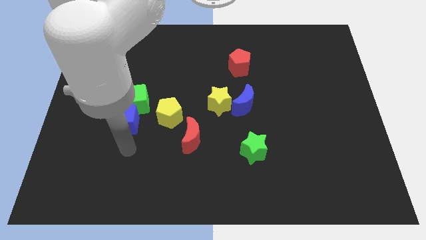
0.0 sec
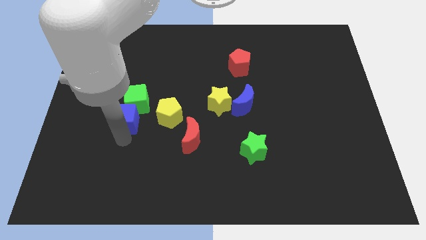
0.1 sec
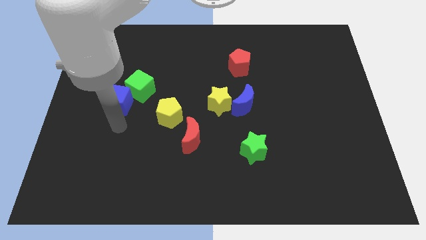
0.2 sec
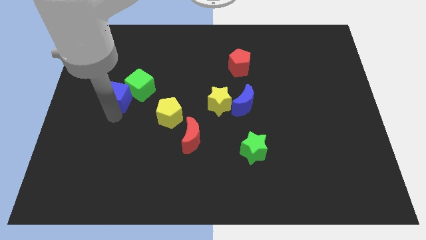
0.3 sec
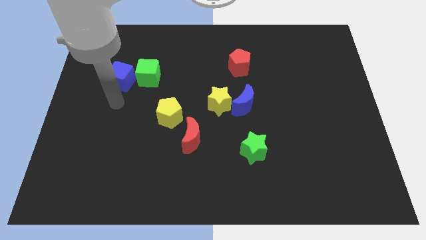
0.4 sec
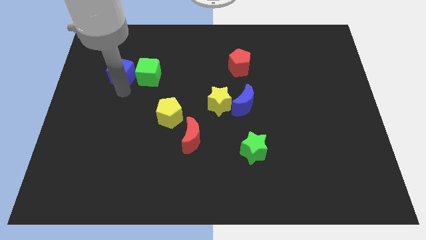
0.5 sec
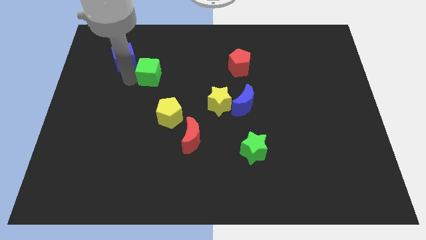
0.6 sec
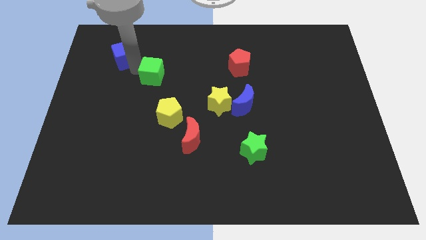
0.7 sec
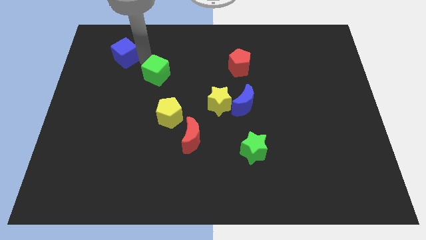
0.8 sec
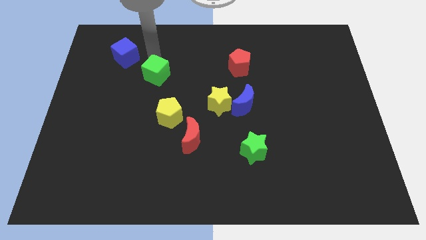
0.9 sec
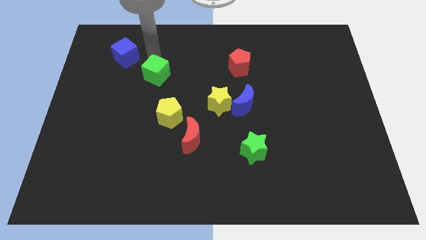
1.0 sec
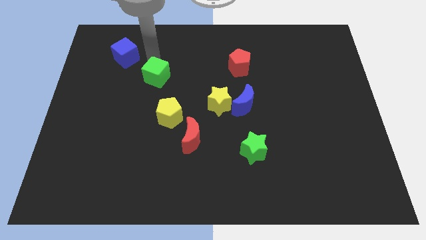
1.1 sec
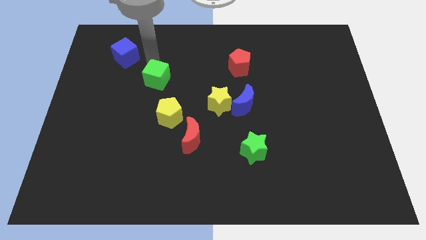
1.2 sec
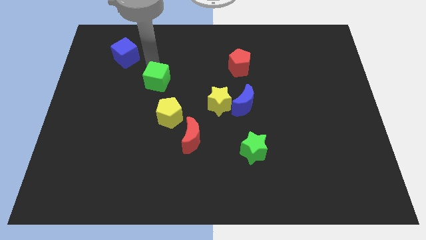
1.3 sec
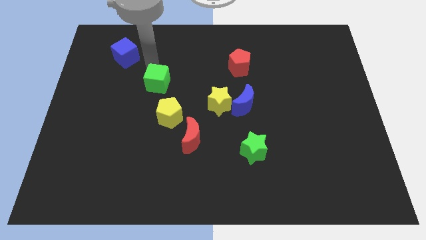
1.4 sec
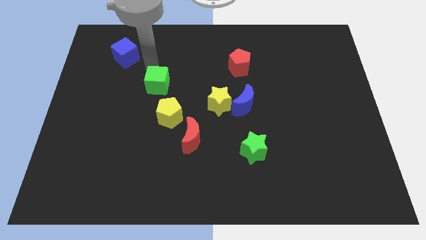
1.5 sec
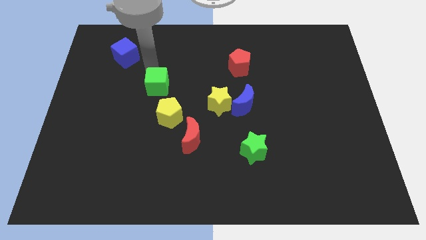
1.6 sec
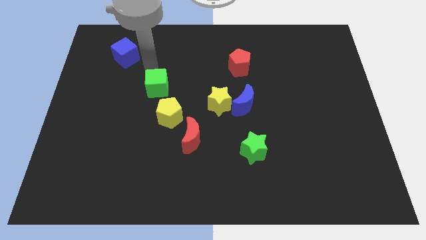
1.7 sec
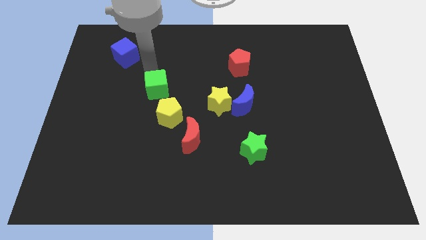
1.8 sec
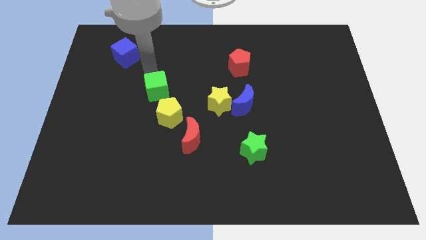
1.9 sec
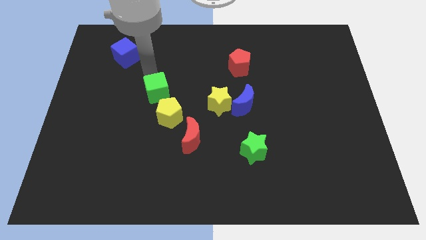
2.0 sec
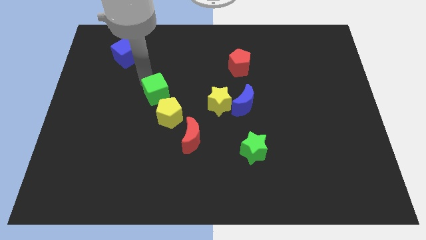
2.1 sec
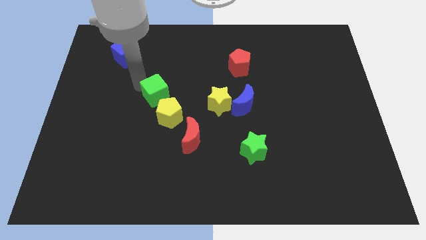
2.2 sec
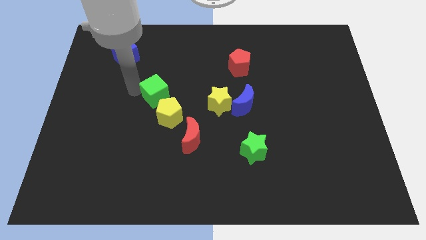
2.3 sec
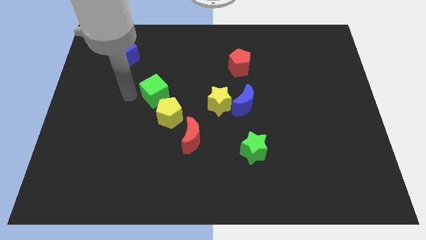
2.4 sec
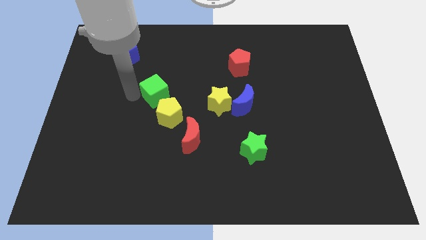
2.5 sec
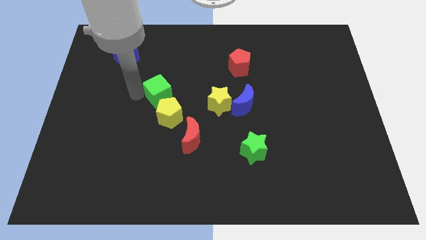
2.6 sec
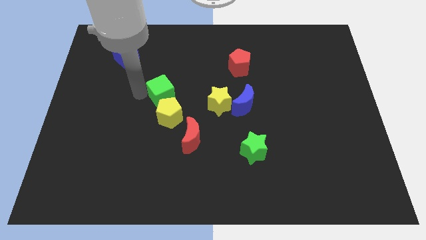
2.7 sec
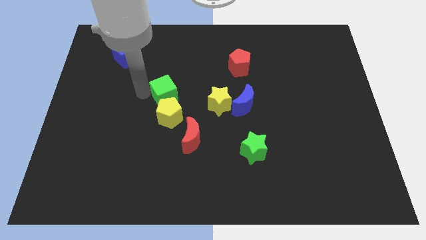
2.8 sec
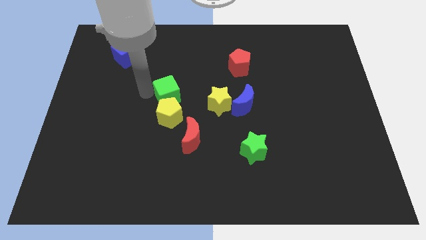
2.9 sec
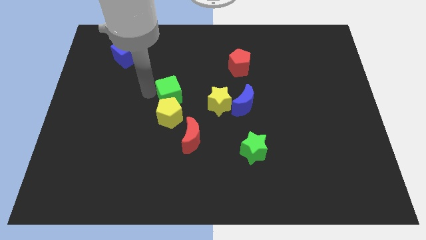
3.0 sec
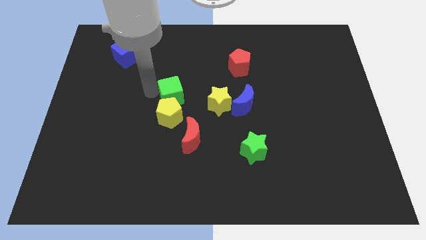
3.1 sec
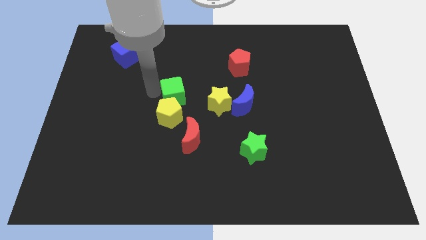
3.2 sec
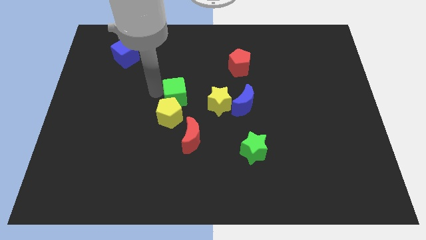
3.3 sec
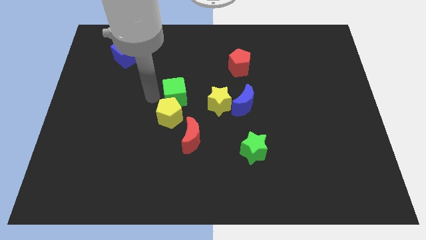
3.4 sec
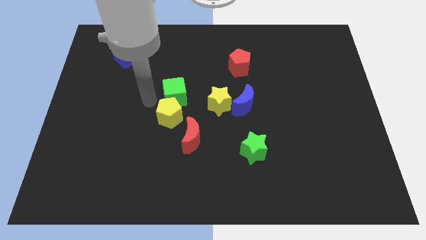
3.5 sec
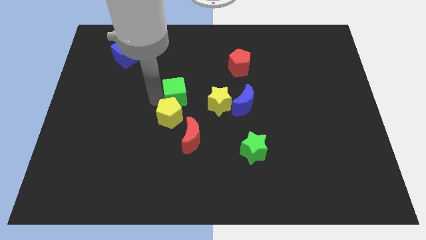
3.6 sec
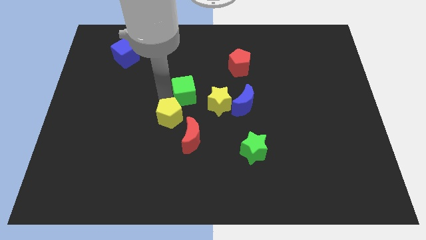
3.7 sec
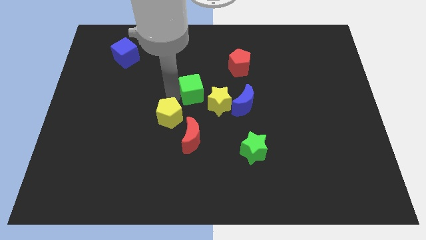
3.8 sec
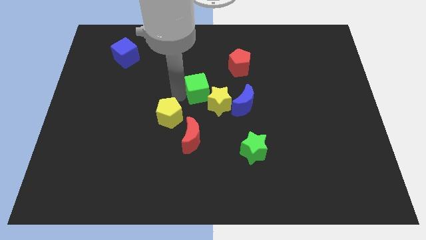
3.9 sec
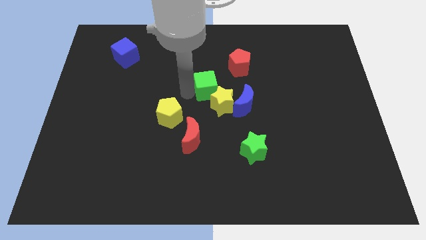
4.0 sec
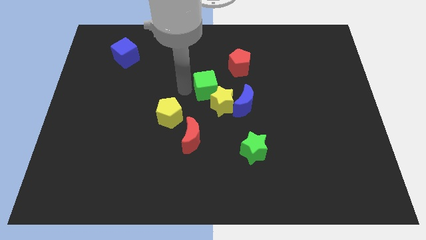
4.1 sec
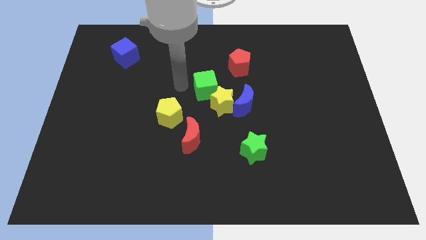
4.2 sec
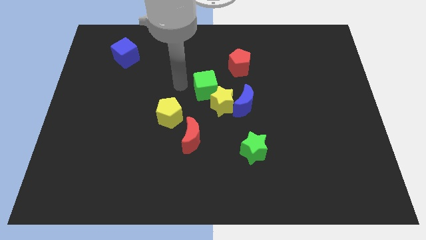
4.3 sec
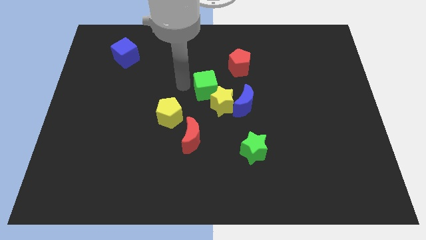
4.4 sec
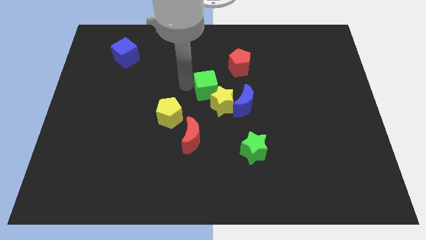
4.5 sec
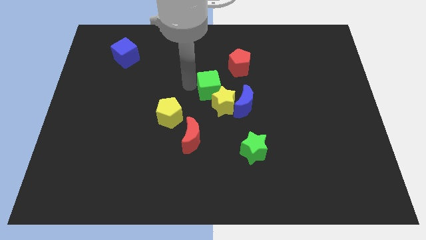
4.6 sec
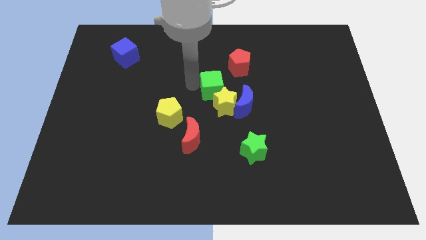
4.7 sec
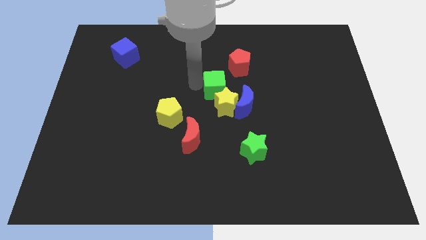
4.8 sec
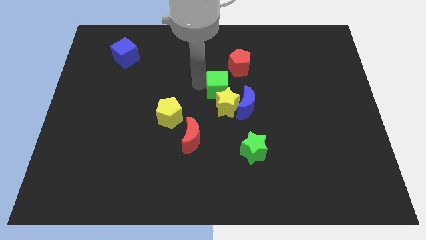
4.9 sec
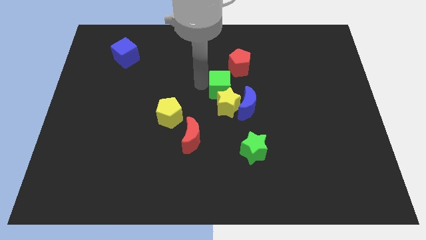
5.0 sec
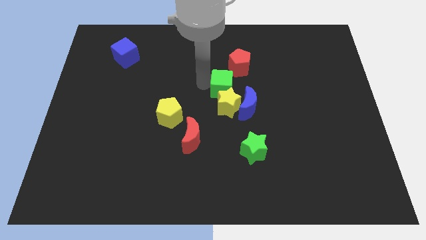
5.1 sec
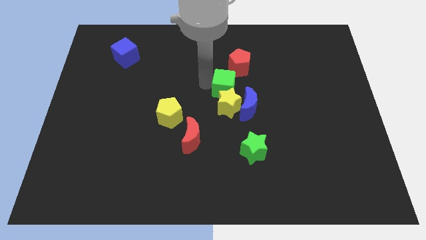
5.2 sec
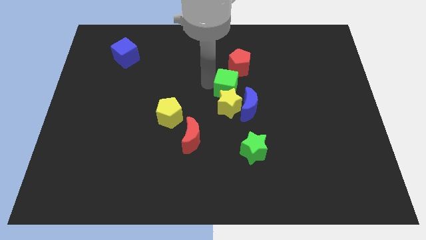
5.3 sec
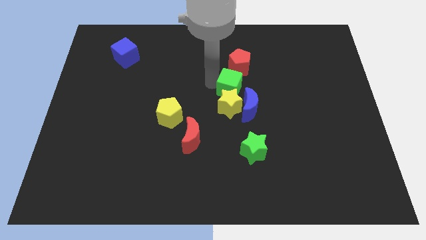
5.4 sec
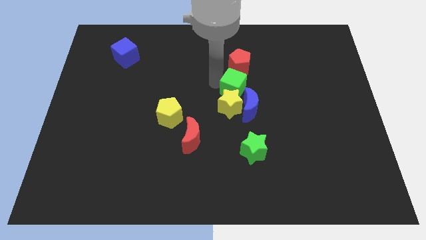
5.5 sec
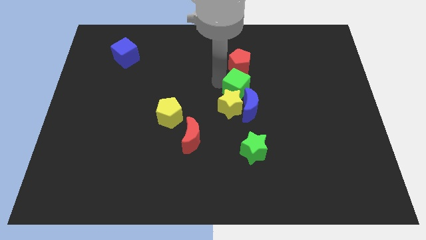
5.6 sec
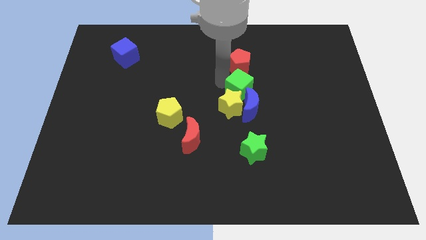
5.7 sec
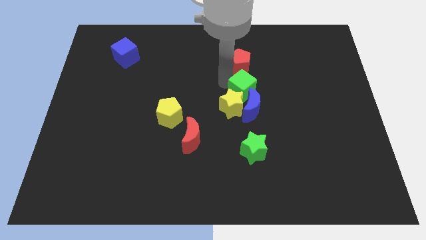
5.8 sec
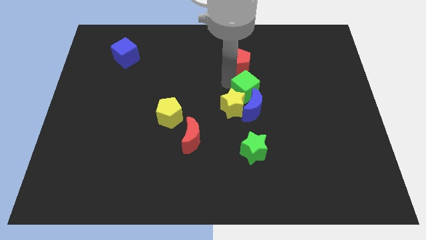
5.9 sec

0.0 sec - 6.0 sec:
move the green cube next to the blue moon

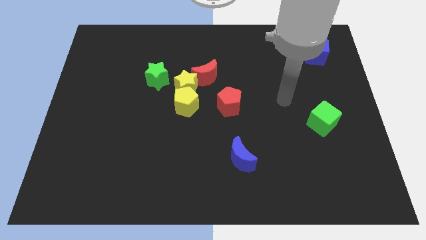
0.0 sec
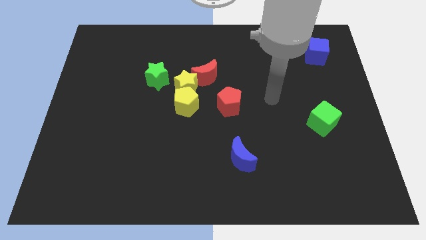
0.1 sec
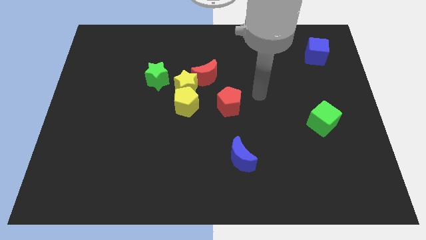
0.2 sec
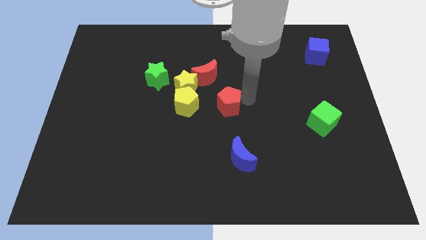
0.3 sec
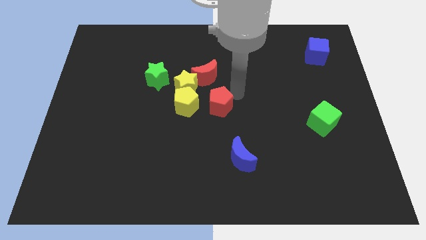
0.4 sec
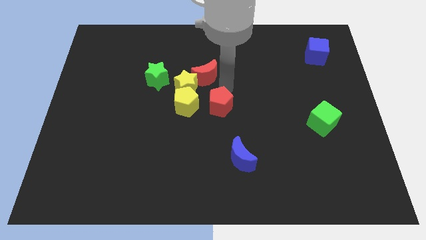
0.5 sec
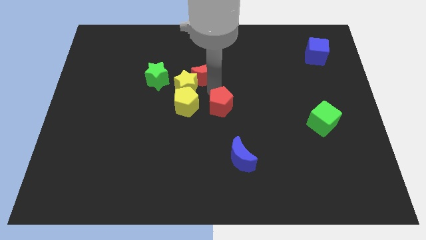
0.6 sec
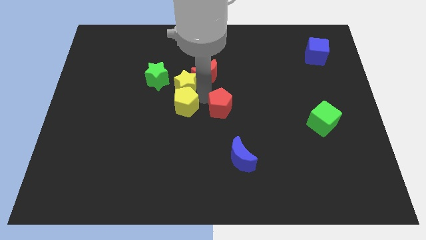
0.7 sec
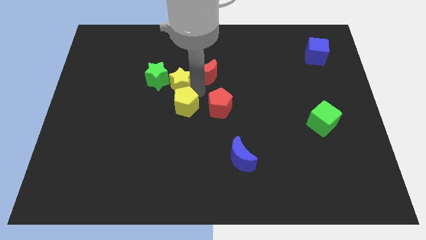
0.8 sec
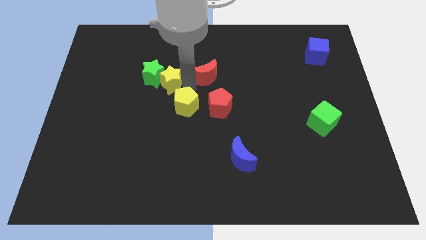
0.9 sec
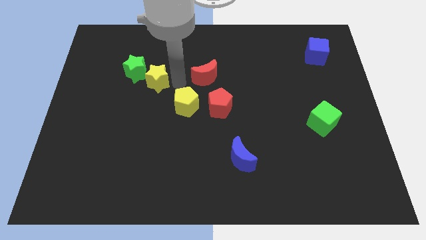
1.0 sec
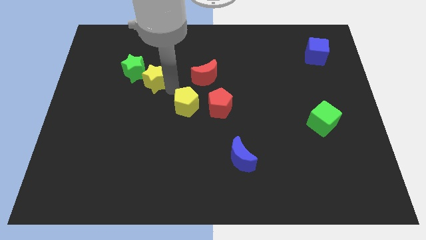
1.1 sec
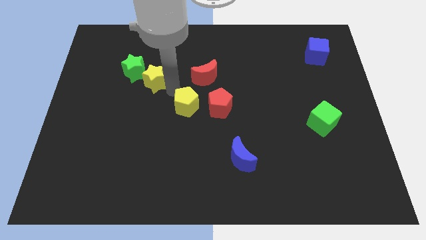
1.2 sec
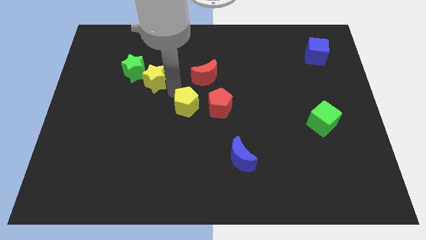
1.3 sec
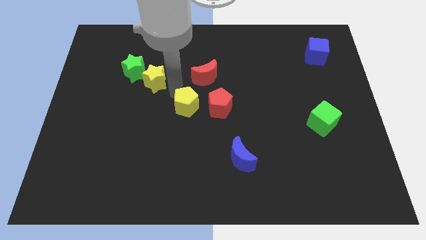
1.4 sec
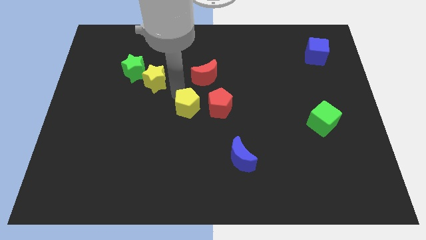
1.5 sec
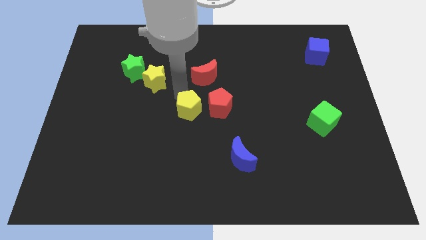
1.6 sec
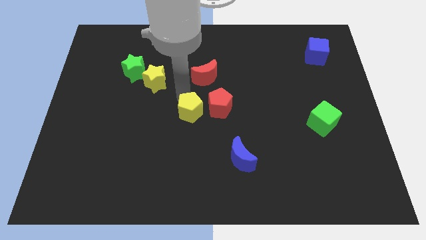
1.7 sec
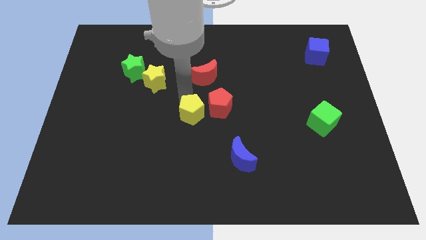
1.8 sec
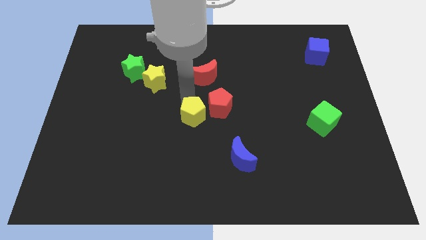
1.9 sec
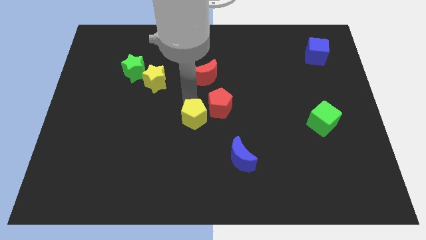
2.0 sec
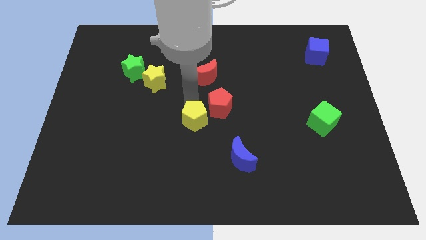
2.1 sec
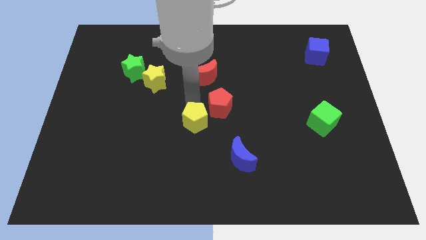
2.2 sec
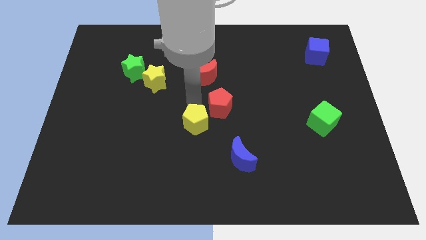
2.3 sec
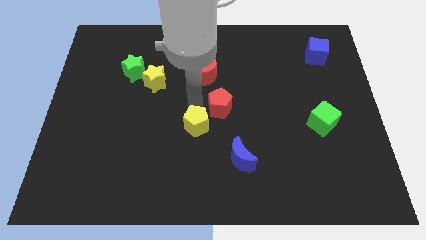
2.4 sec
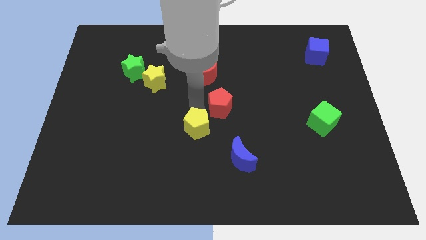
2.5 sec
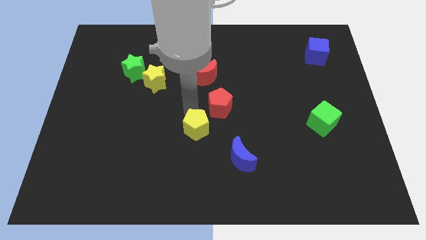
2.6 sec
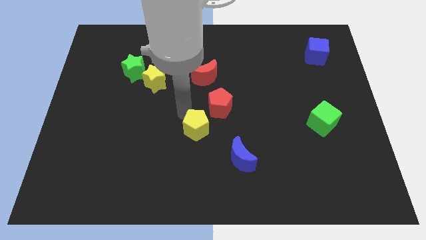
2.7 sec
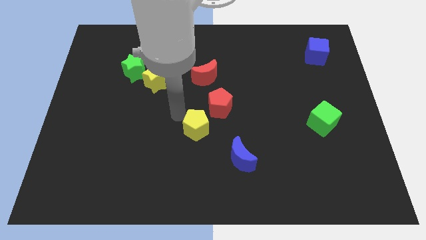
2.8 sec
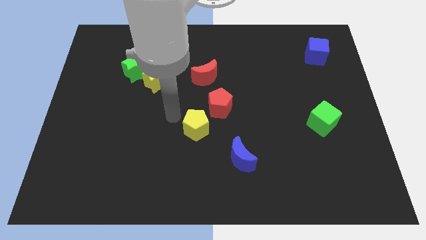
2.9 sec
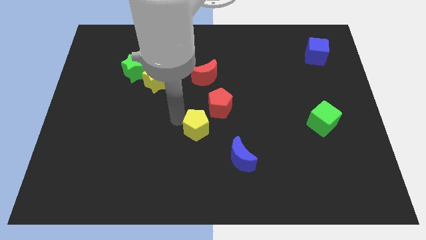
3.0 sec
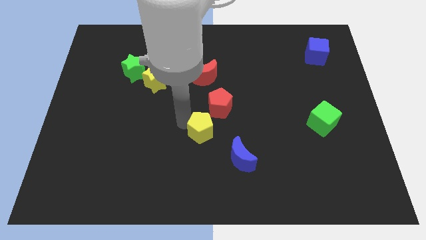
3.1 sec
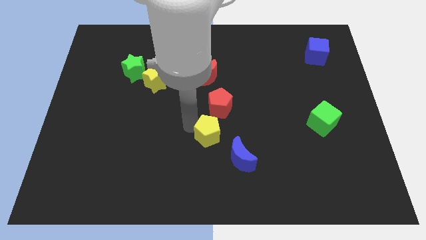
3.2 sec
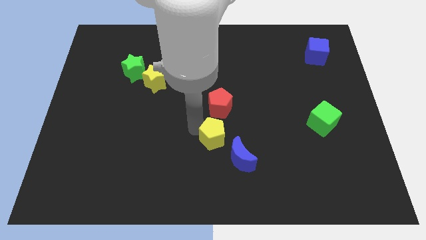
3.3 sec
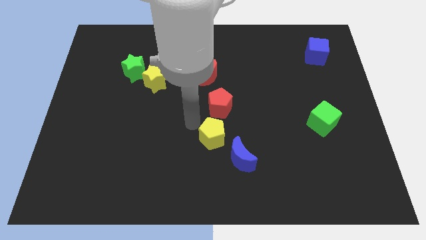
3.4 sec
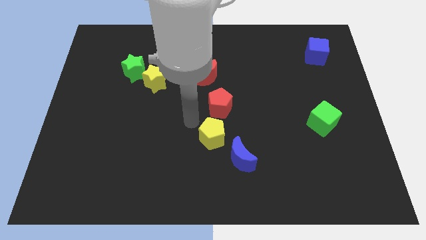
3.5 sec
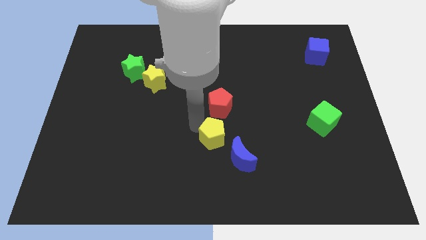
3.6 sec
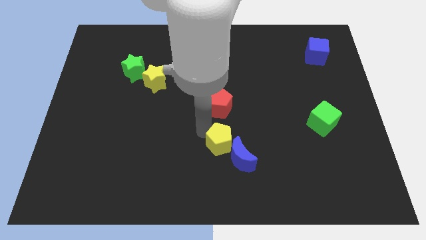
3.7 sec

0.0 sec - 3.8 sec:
put the yellow pentagon close to the blue moon
